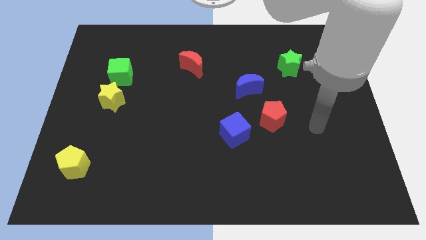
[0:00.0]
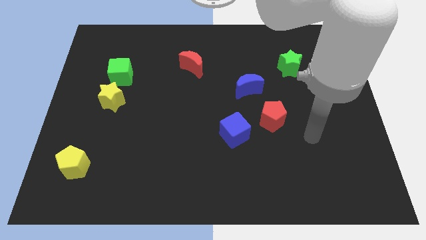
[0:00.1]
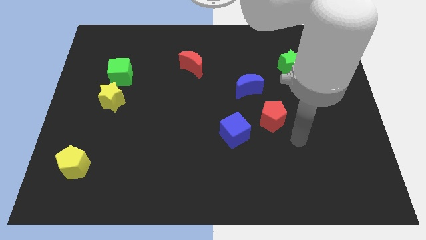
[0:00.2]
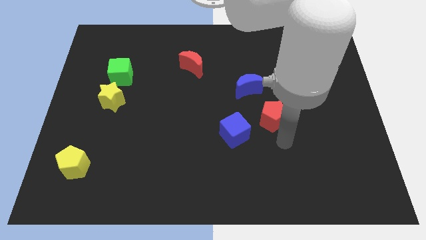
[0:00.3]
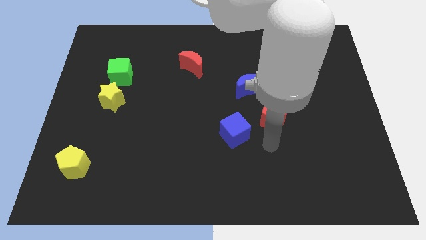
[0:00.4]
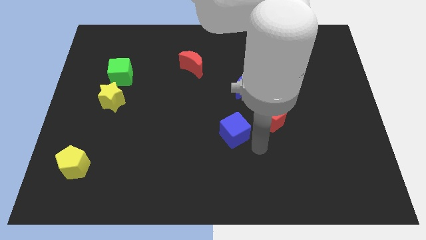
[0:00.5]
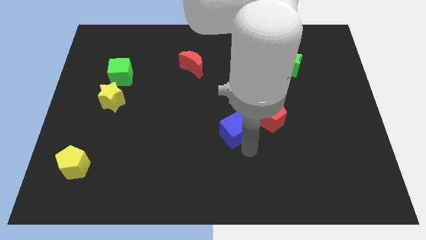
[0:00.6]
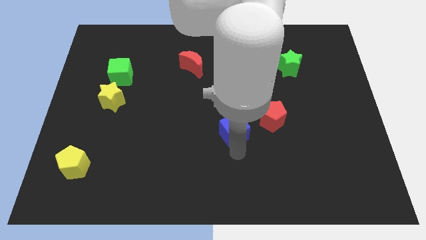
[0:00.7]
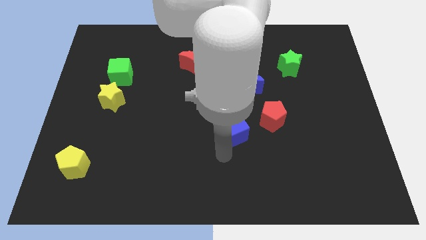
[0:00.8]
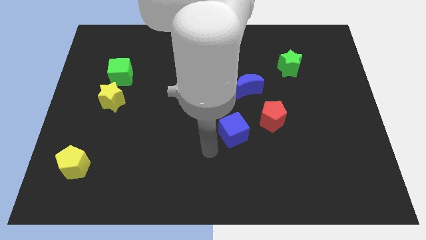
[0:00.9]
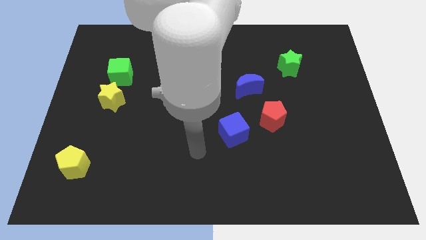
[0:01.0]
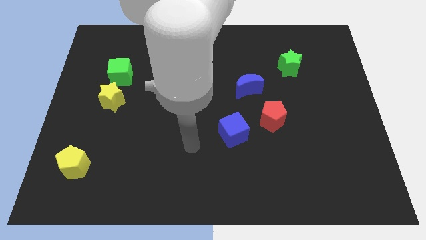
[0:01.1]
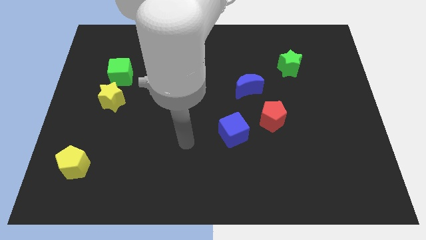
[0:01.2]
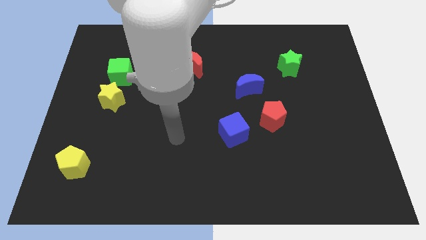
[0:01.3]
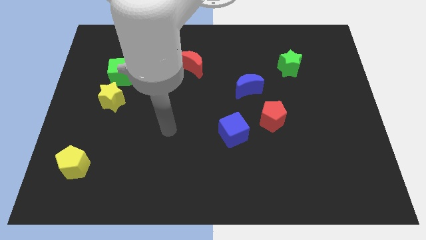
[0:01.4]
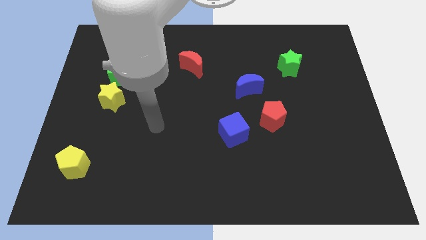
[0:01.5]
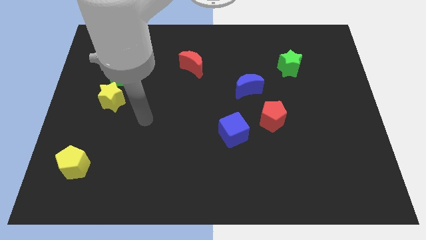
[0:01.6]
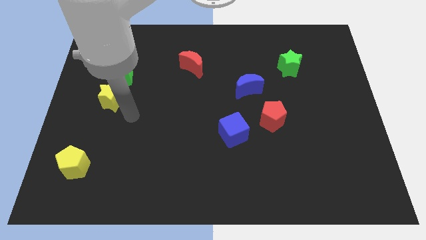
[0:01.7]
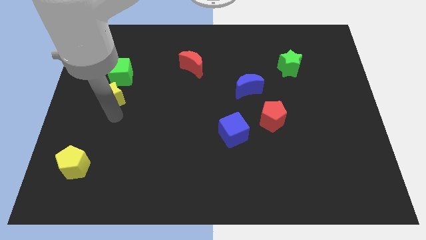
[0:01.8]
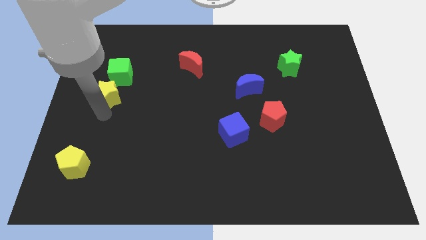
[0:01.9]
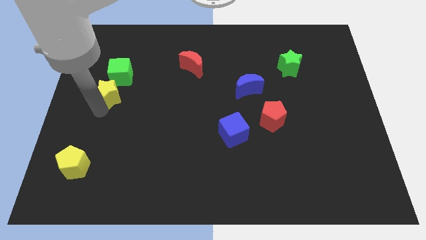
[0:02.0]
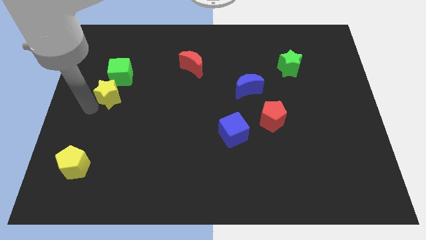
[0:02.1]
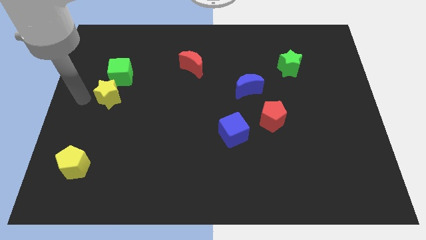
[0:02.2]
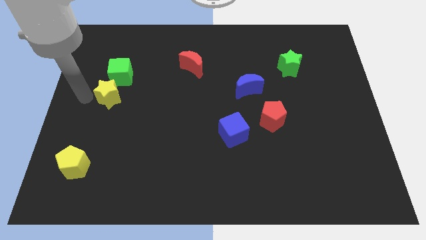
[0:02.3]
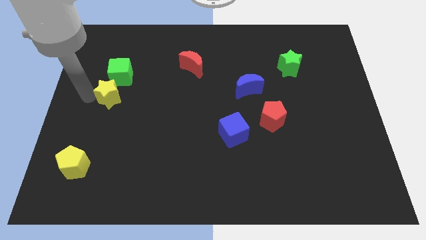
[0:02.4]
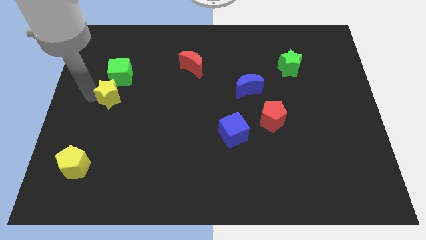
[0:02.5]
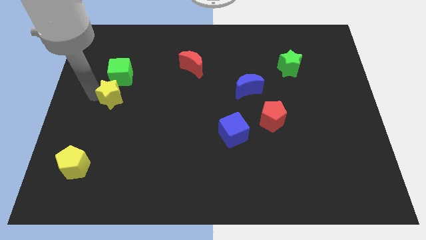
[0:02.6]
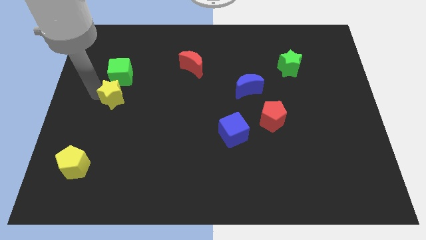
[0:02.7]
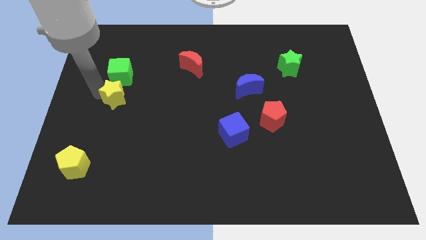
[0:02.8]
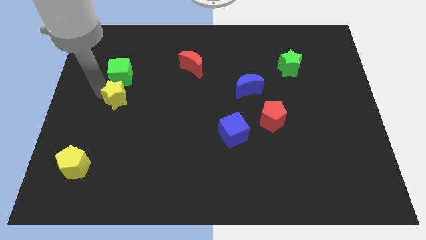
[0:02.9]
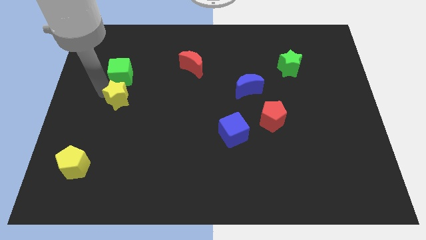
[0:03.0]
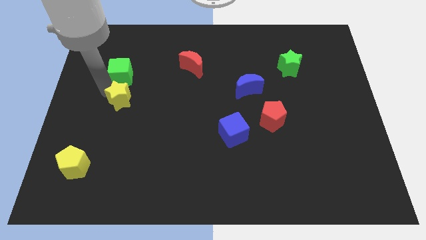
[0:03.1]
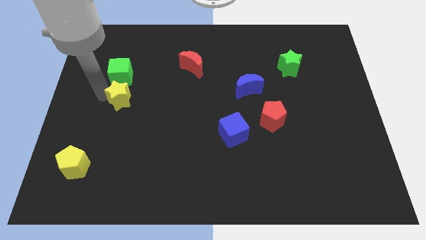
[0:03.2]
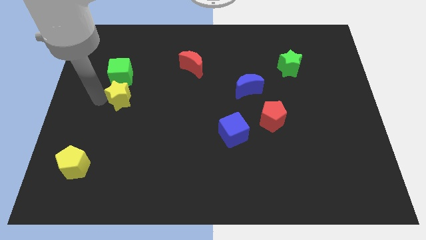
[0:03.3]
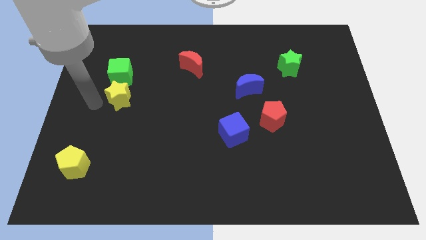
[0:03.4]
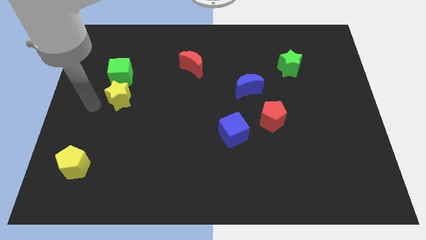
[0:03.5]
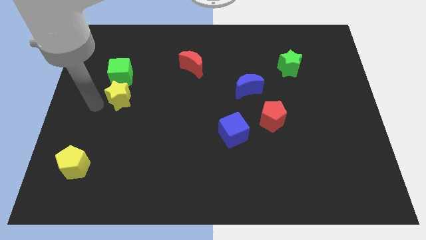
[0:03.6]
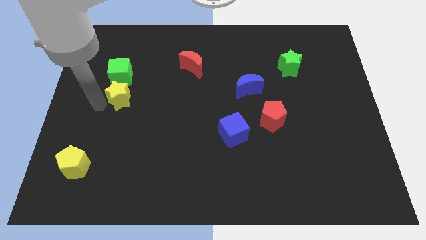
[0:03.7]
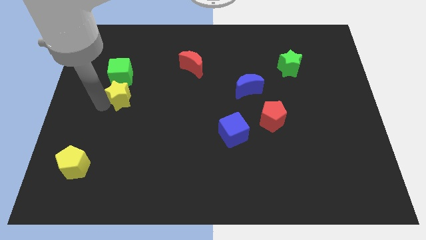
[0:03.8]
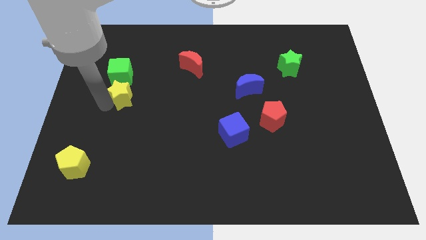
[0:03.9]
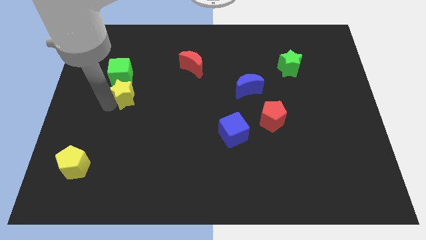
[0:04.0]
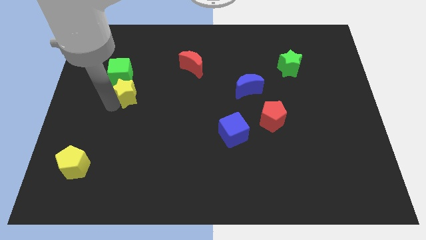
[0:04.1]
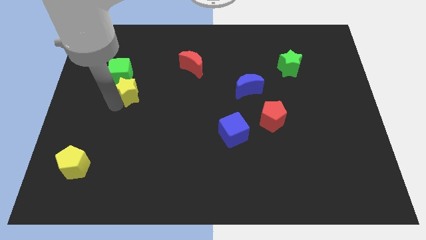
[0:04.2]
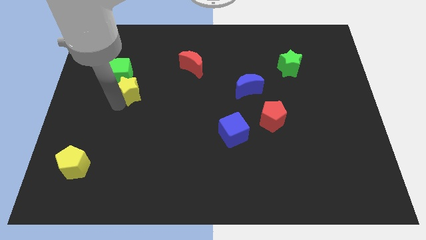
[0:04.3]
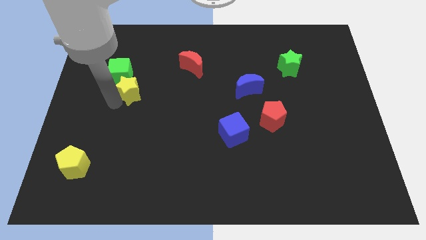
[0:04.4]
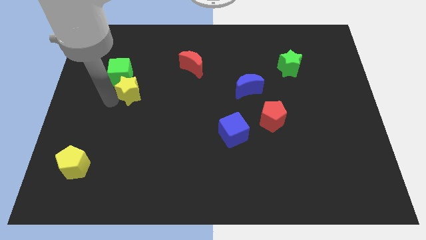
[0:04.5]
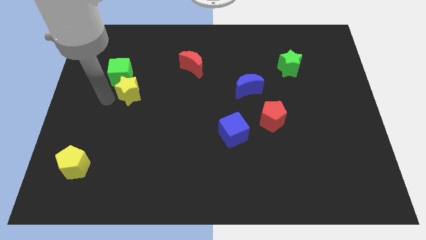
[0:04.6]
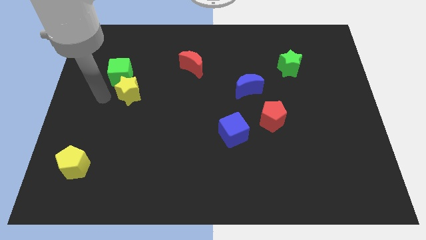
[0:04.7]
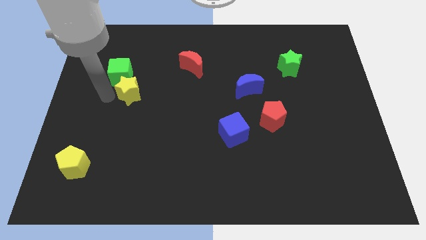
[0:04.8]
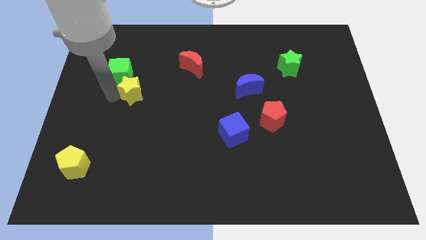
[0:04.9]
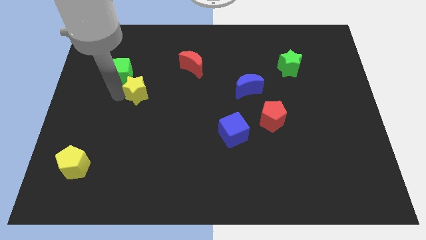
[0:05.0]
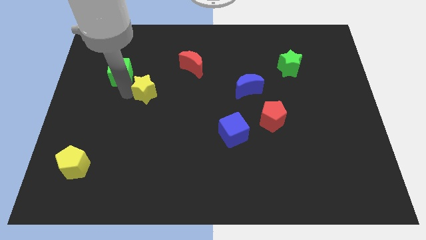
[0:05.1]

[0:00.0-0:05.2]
move the yellow star to the right a little bit

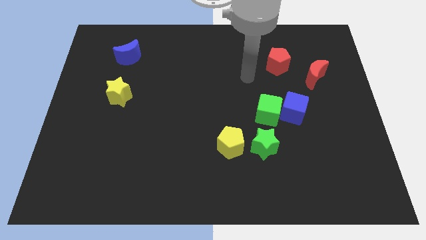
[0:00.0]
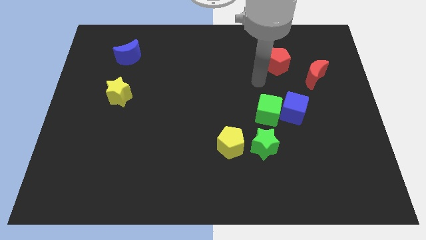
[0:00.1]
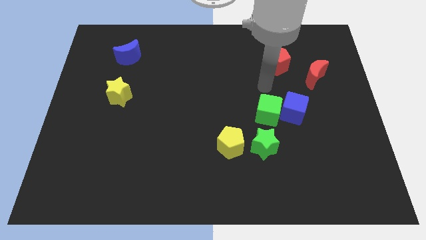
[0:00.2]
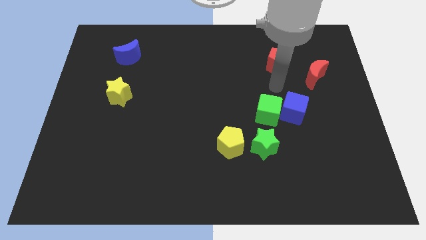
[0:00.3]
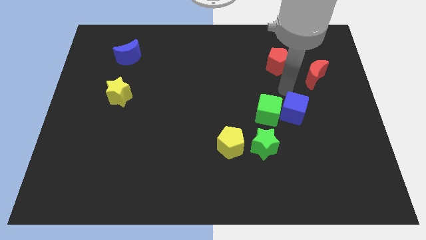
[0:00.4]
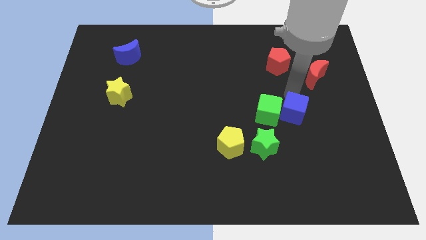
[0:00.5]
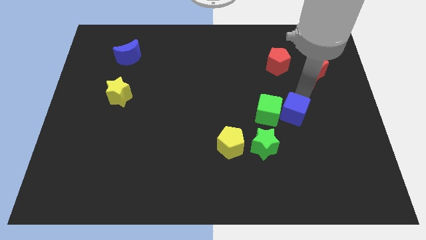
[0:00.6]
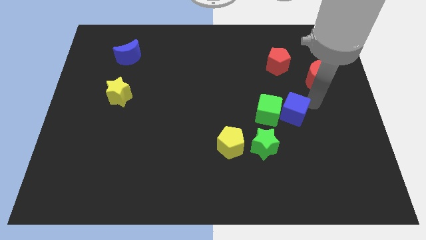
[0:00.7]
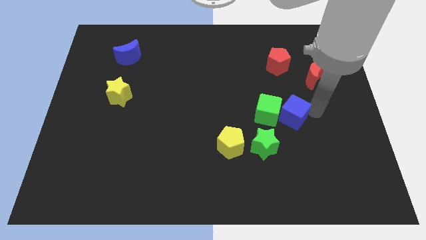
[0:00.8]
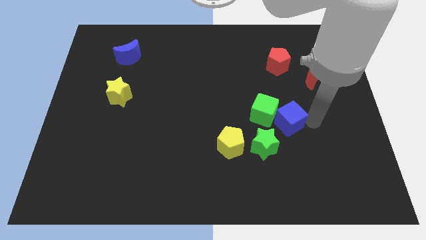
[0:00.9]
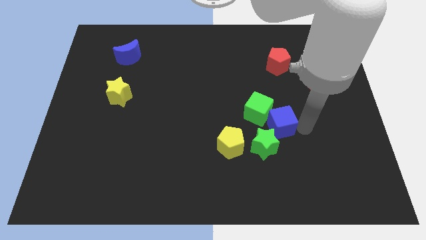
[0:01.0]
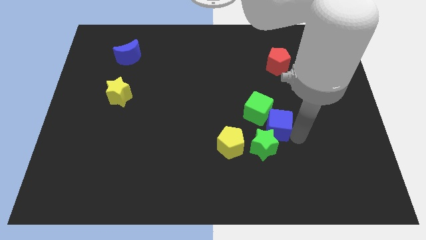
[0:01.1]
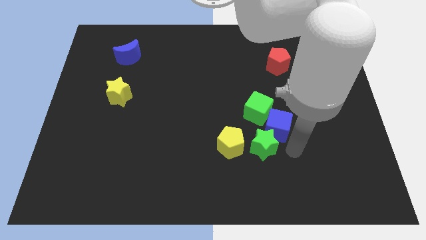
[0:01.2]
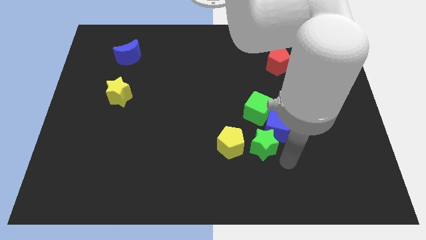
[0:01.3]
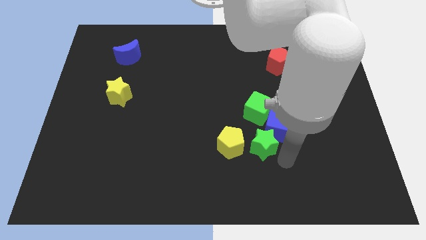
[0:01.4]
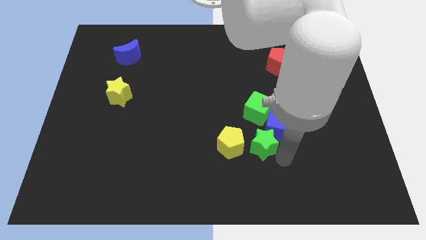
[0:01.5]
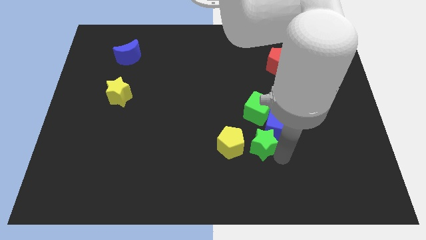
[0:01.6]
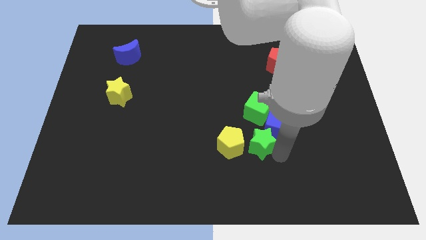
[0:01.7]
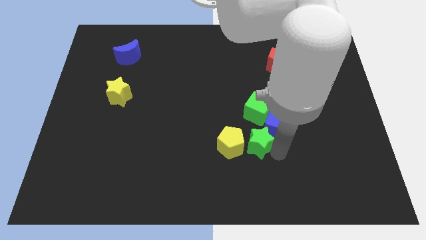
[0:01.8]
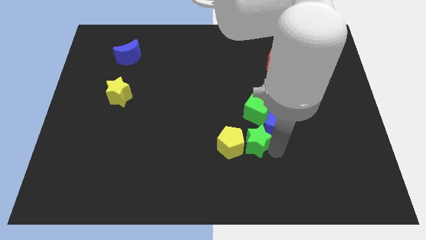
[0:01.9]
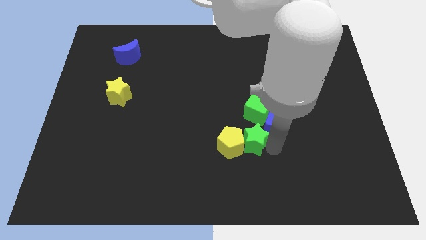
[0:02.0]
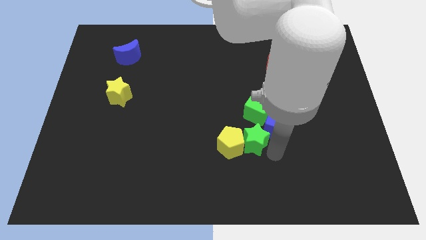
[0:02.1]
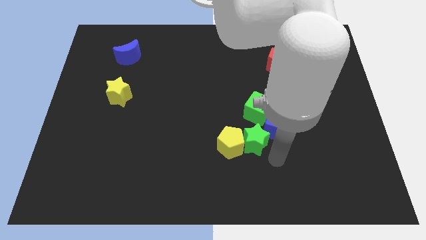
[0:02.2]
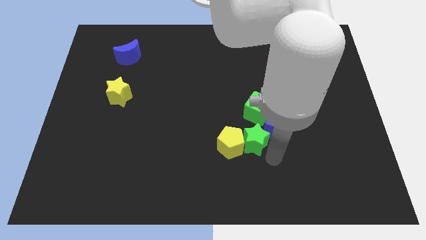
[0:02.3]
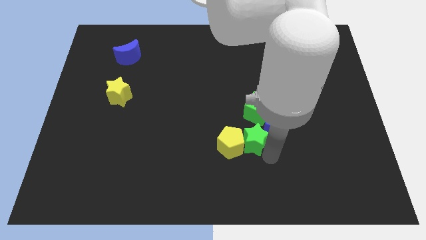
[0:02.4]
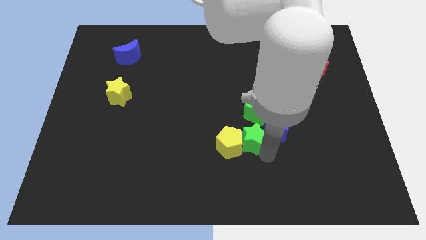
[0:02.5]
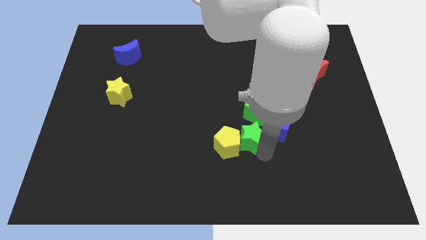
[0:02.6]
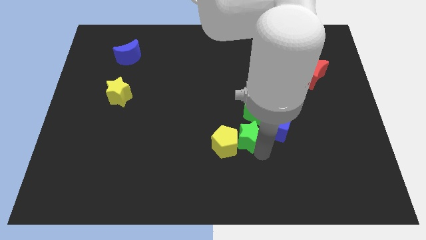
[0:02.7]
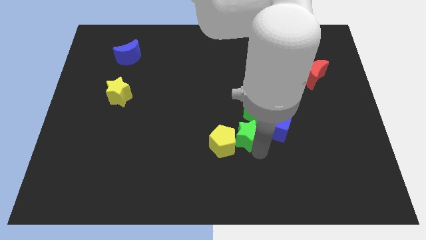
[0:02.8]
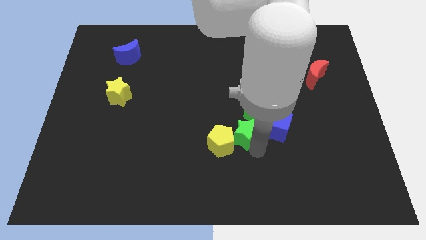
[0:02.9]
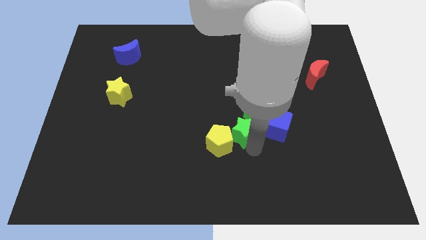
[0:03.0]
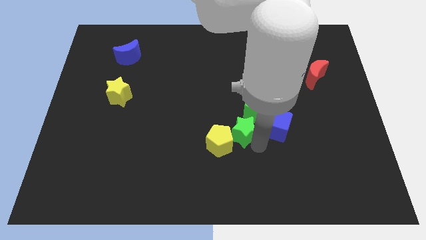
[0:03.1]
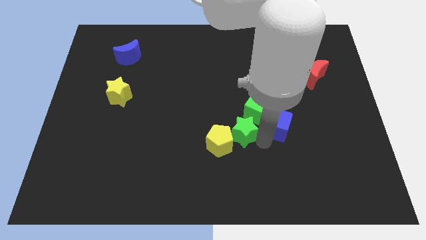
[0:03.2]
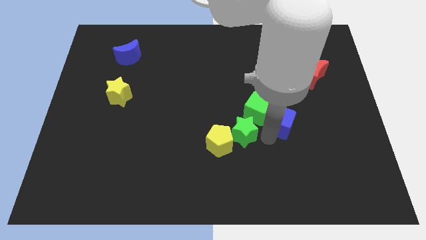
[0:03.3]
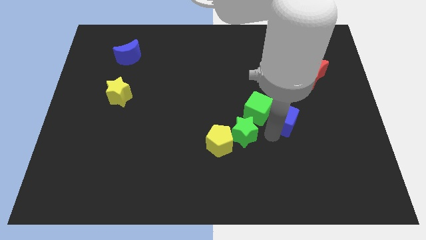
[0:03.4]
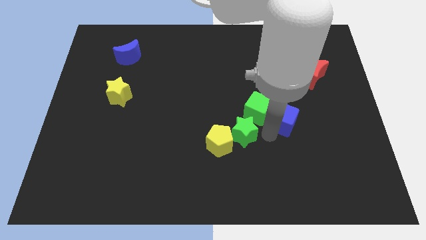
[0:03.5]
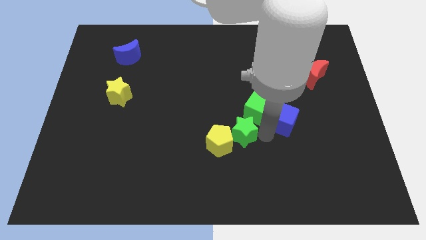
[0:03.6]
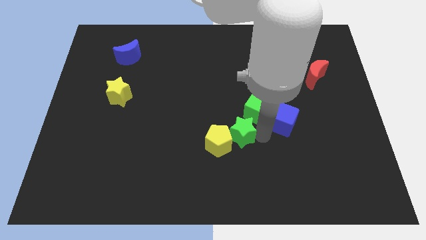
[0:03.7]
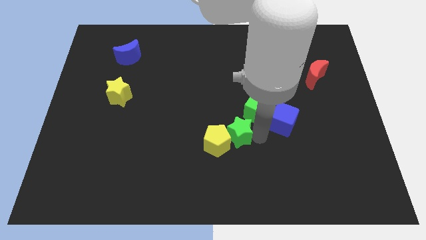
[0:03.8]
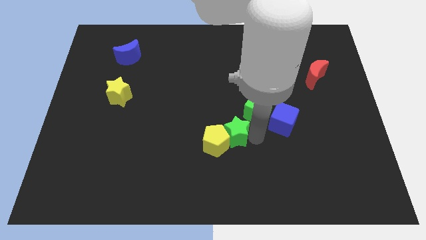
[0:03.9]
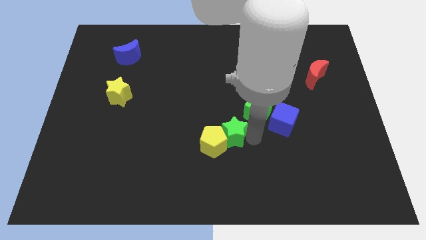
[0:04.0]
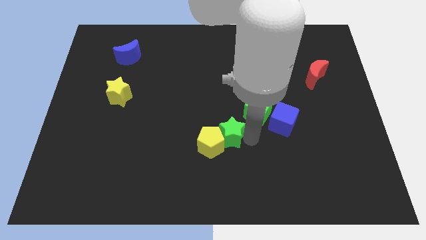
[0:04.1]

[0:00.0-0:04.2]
slightly move the green star to the left
